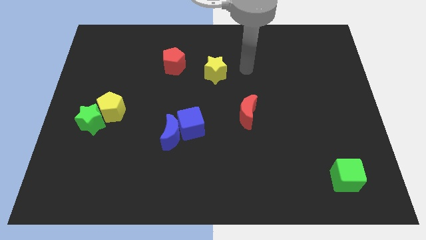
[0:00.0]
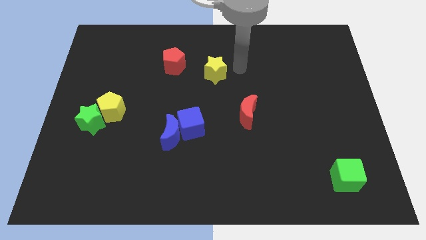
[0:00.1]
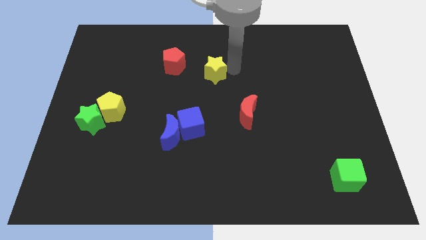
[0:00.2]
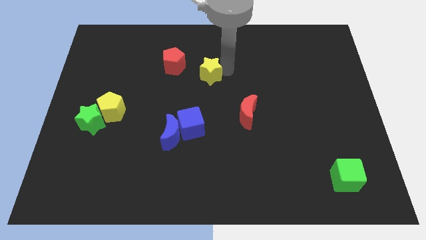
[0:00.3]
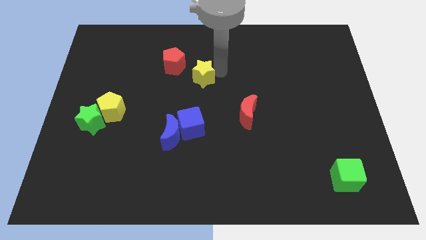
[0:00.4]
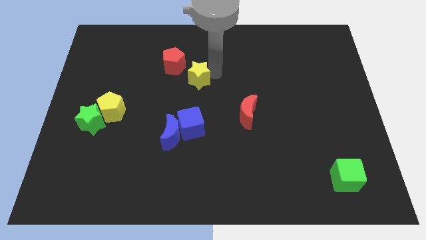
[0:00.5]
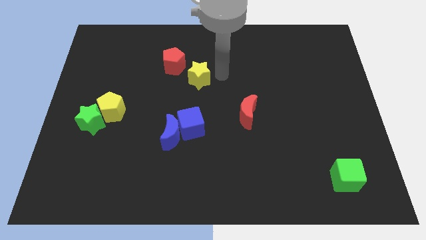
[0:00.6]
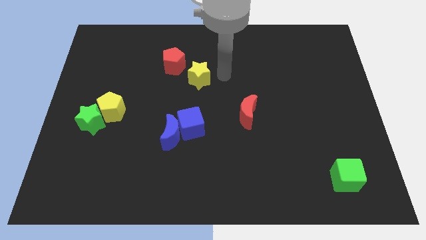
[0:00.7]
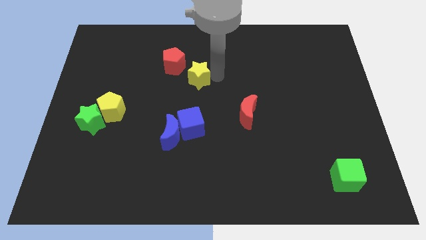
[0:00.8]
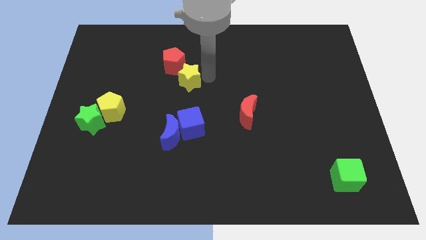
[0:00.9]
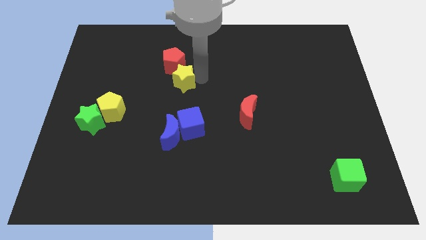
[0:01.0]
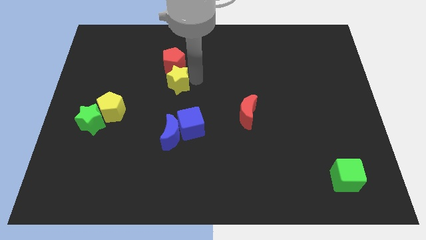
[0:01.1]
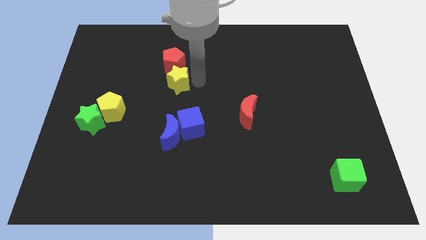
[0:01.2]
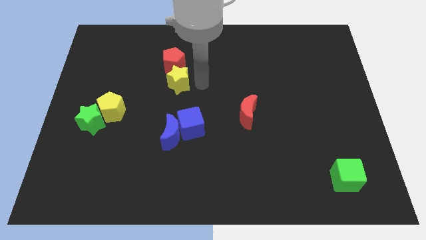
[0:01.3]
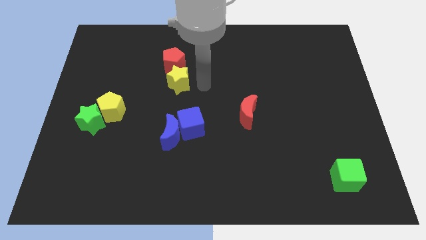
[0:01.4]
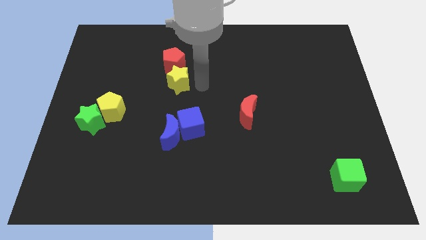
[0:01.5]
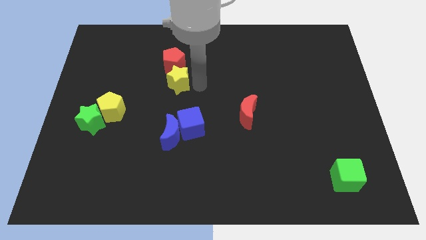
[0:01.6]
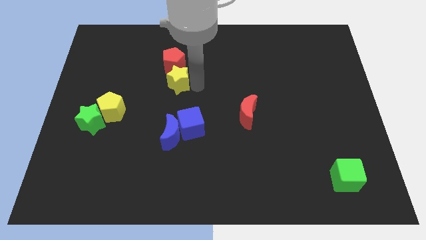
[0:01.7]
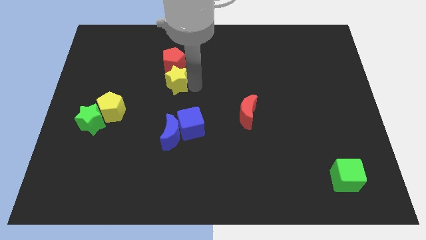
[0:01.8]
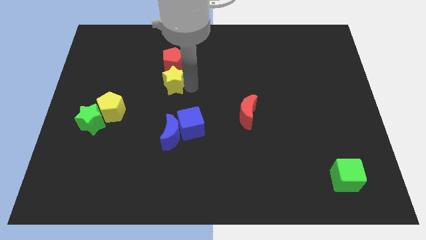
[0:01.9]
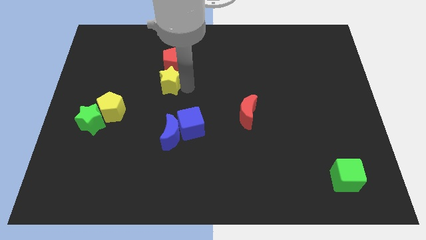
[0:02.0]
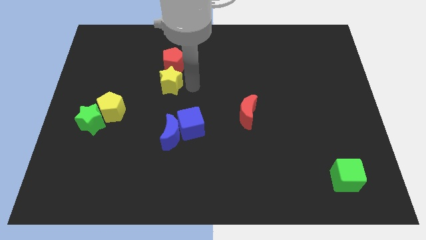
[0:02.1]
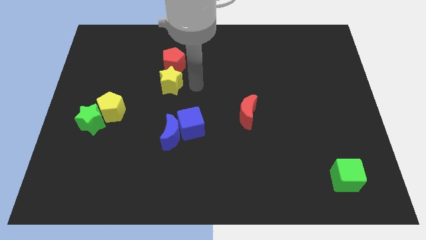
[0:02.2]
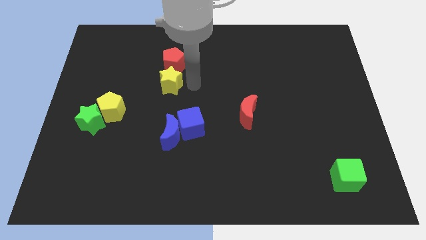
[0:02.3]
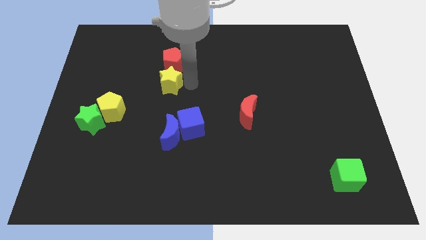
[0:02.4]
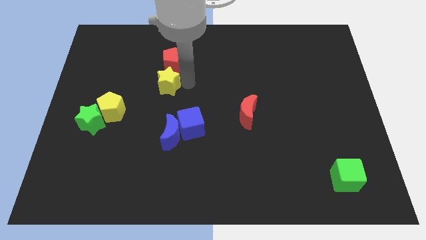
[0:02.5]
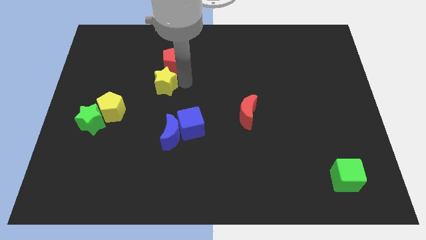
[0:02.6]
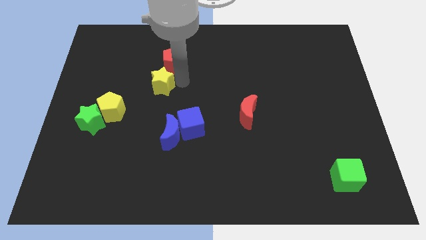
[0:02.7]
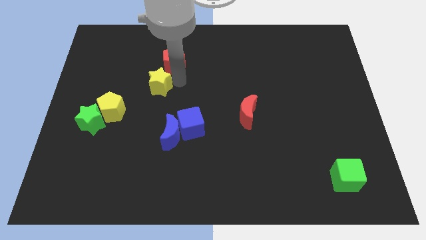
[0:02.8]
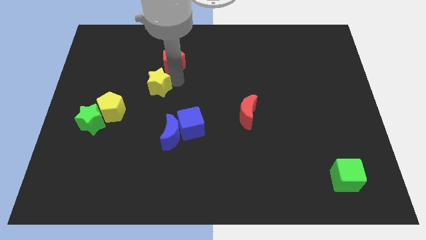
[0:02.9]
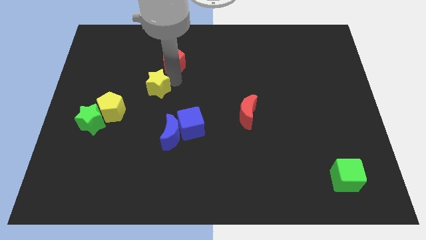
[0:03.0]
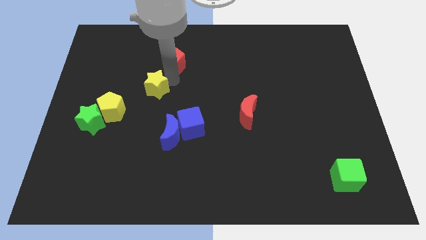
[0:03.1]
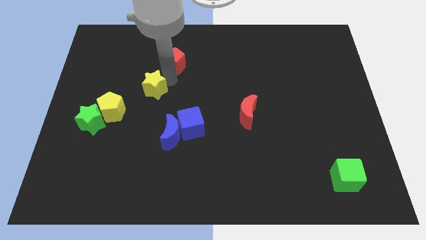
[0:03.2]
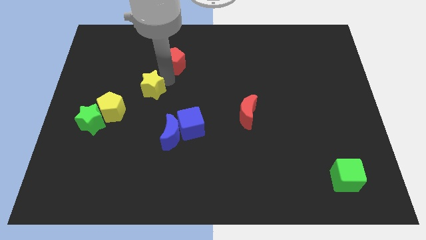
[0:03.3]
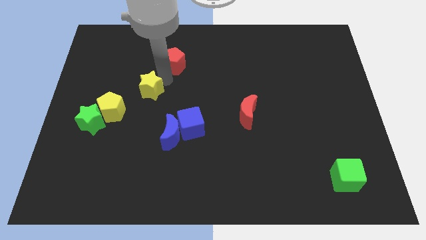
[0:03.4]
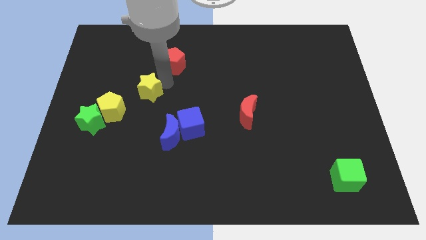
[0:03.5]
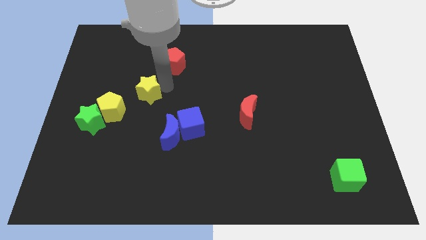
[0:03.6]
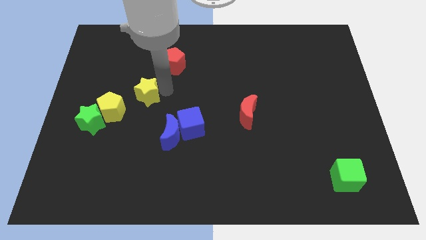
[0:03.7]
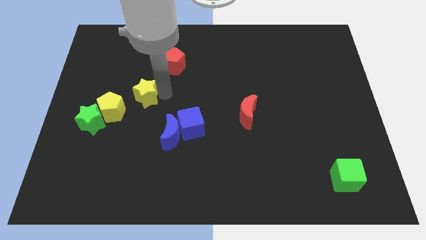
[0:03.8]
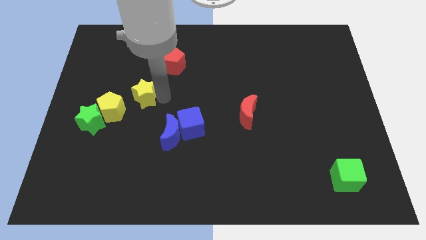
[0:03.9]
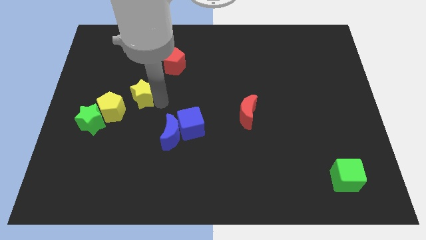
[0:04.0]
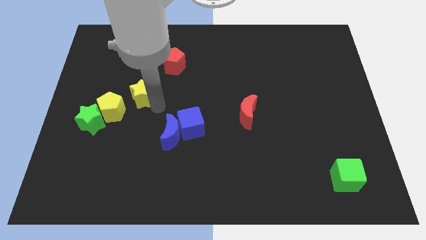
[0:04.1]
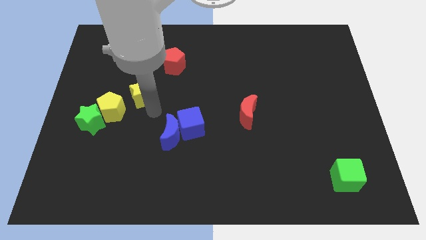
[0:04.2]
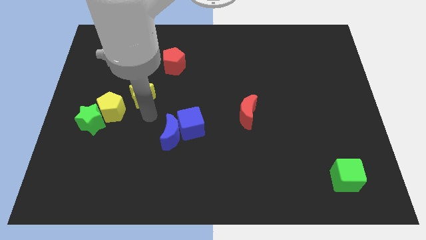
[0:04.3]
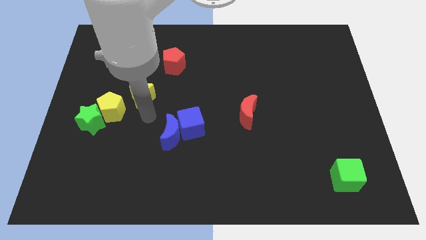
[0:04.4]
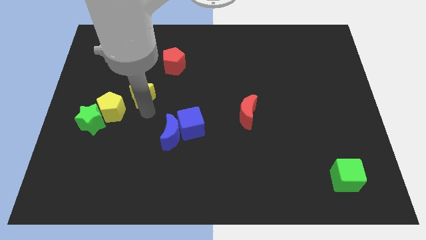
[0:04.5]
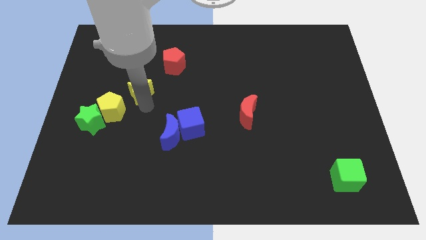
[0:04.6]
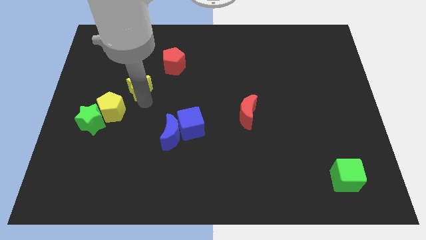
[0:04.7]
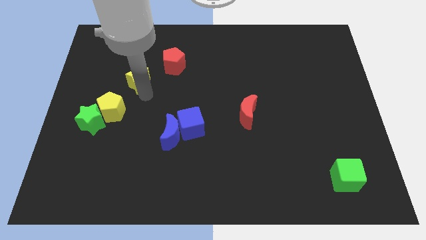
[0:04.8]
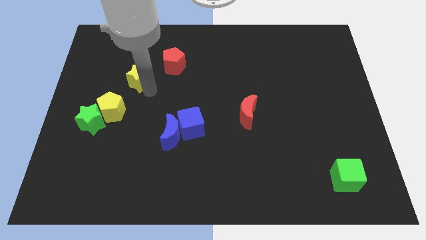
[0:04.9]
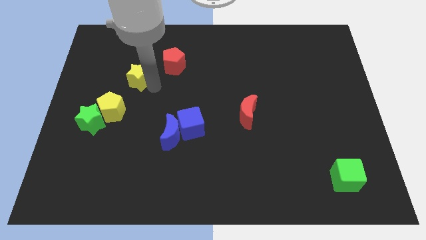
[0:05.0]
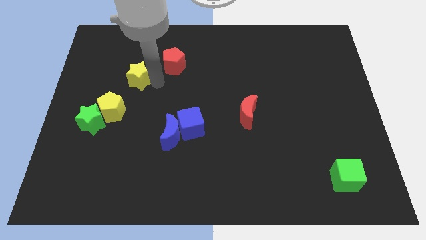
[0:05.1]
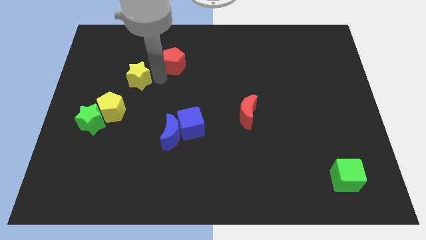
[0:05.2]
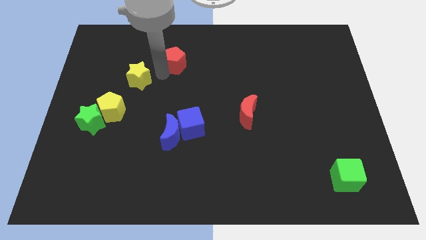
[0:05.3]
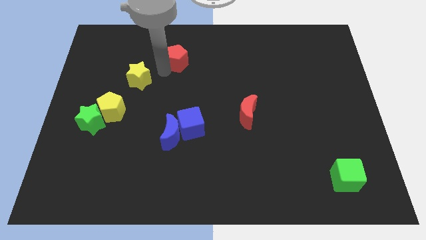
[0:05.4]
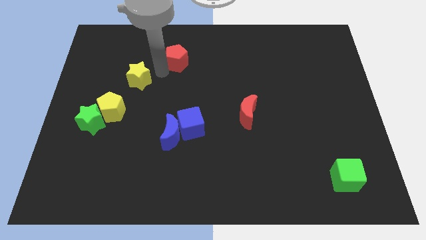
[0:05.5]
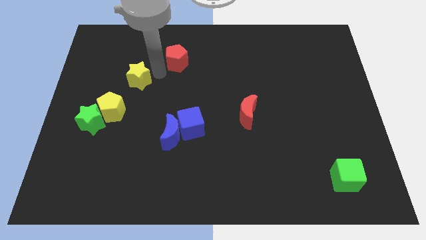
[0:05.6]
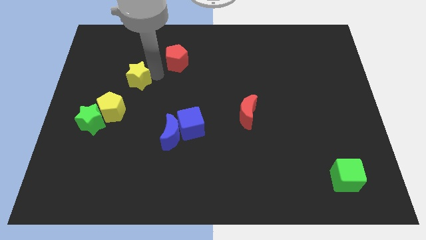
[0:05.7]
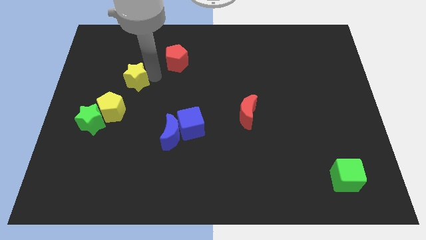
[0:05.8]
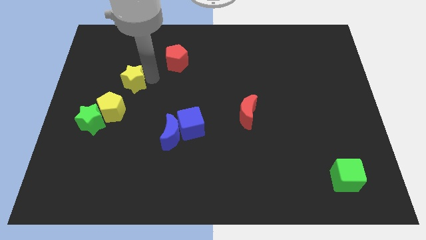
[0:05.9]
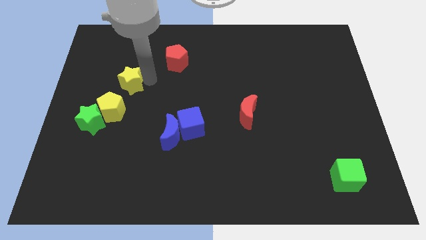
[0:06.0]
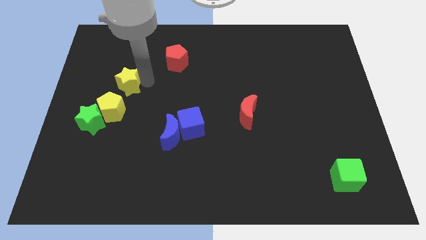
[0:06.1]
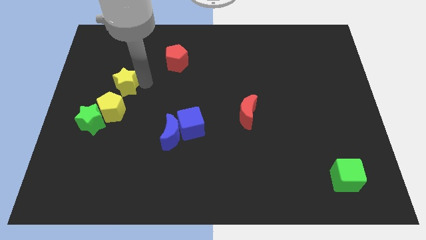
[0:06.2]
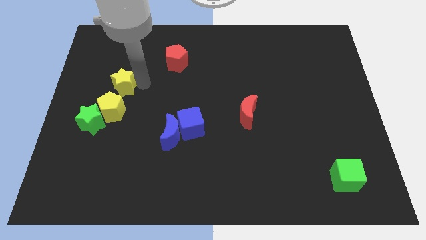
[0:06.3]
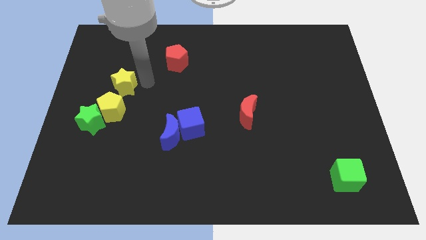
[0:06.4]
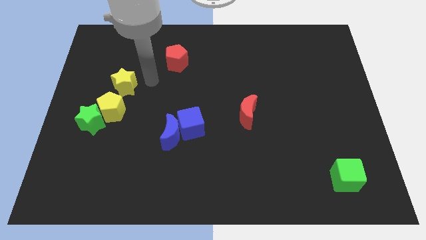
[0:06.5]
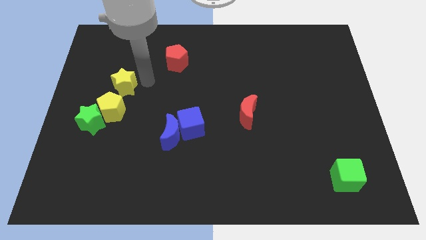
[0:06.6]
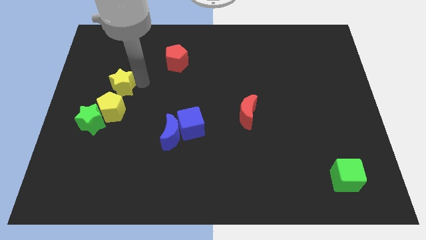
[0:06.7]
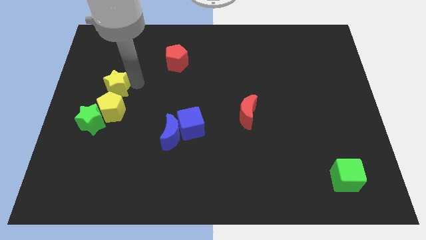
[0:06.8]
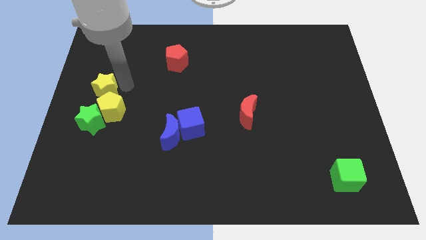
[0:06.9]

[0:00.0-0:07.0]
slide the yellow star to the left side of the board
